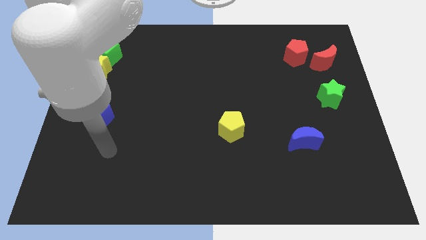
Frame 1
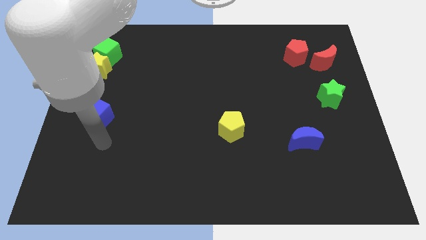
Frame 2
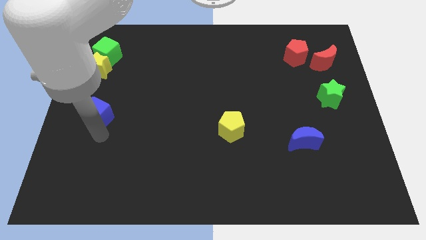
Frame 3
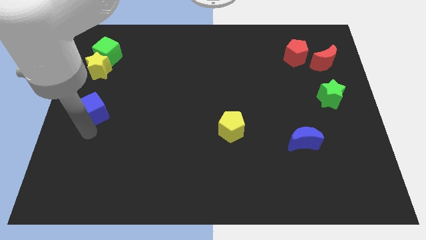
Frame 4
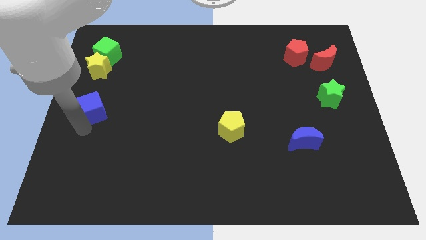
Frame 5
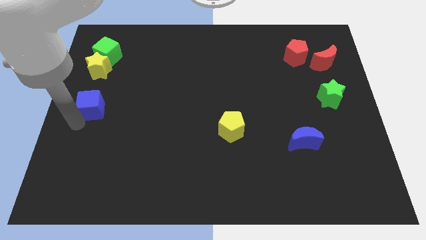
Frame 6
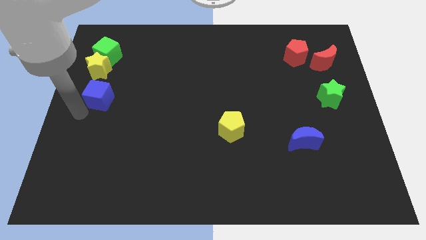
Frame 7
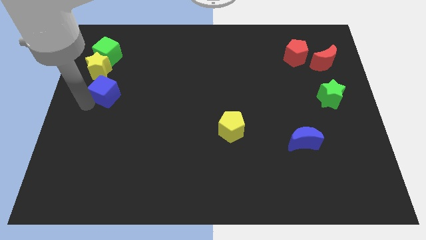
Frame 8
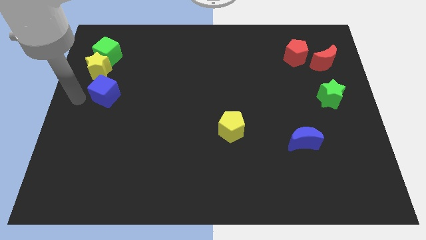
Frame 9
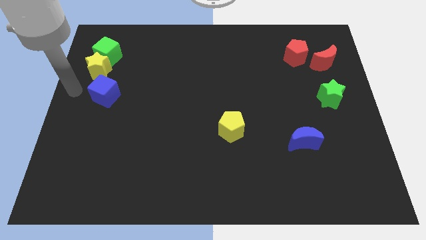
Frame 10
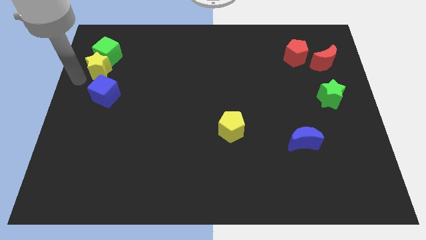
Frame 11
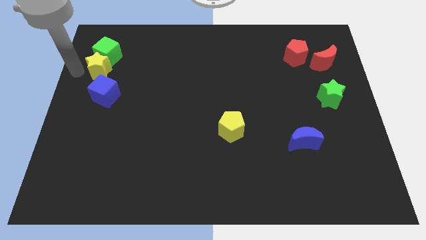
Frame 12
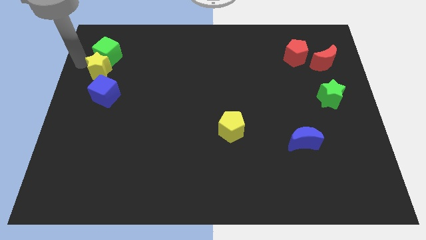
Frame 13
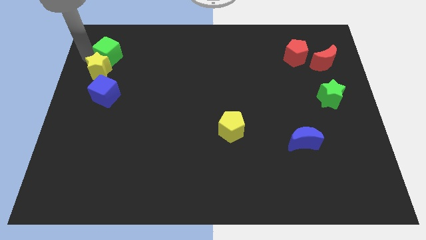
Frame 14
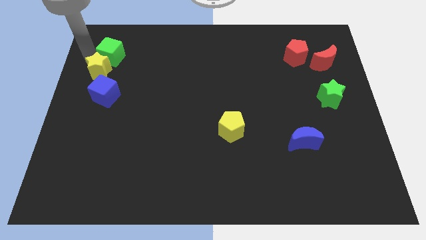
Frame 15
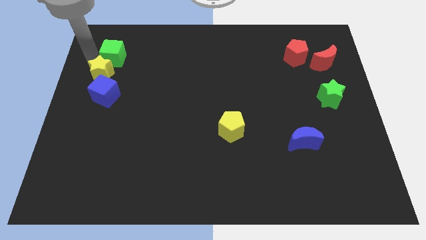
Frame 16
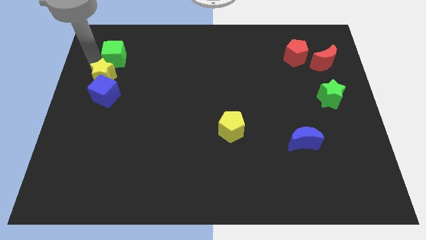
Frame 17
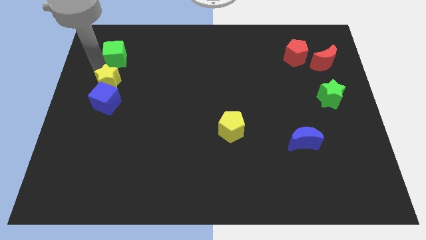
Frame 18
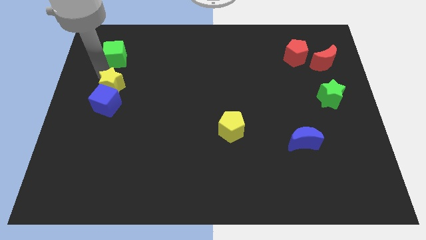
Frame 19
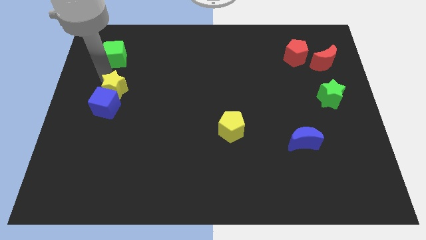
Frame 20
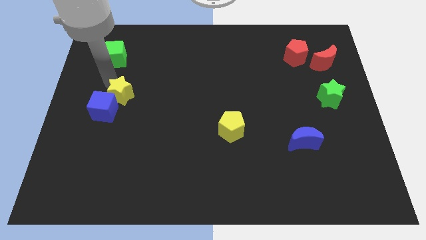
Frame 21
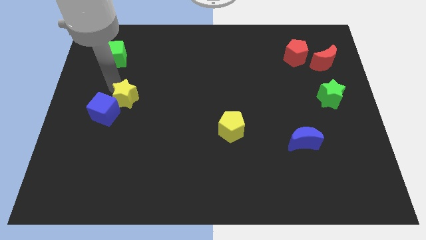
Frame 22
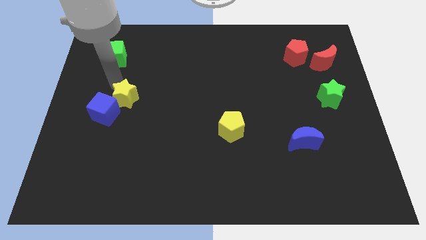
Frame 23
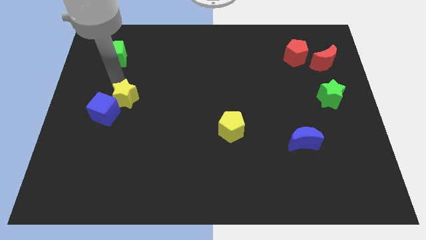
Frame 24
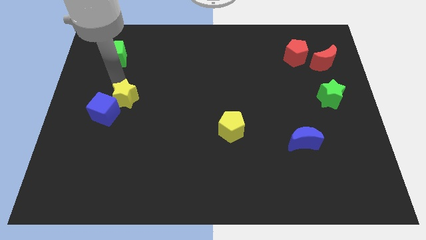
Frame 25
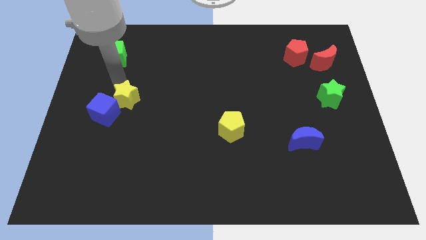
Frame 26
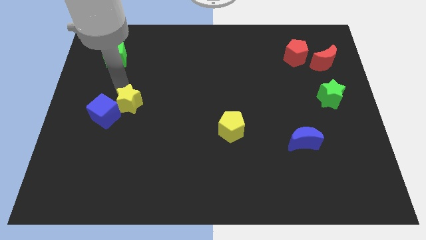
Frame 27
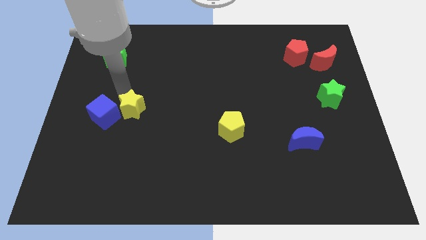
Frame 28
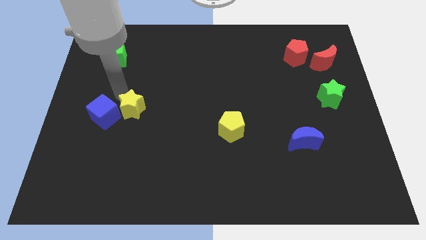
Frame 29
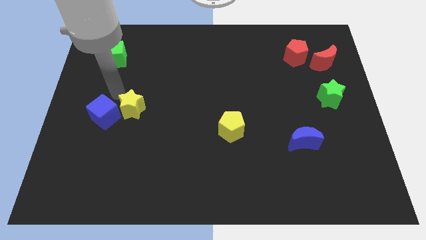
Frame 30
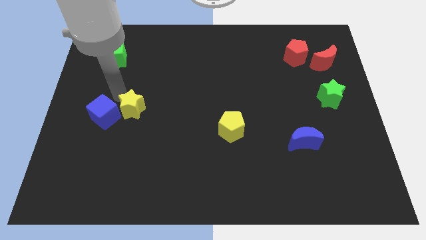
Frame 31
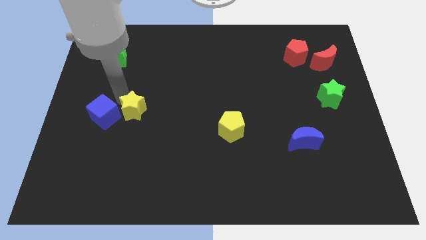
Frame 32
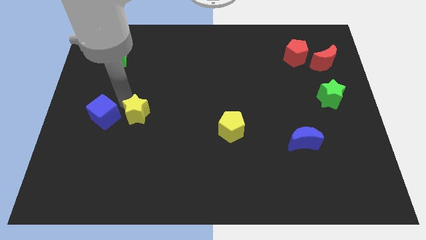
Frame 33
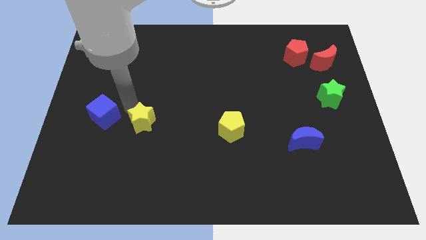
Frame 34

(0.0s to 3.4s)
slide the yellow star down and right

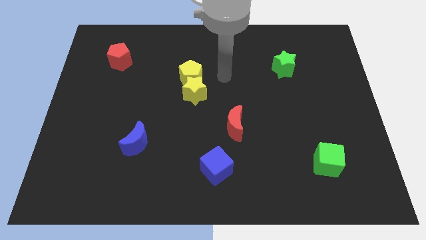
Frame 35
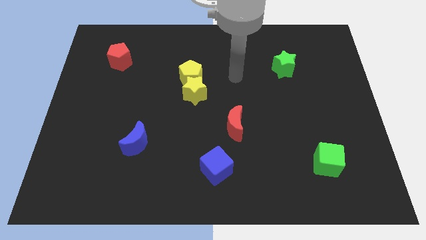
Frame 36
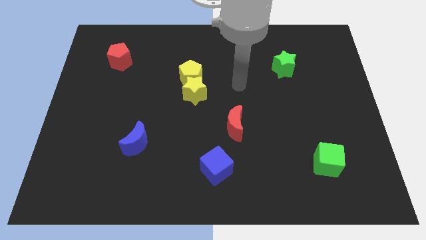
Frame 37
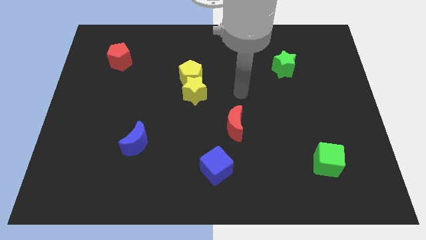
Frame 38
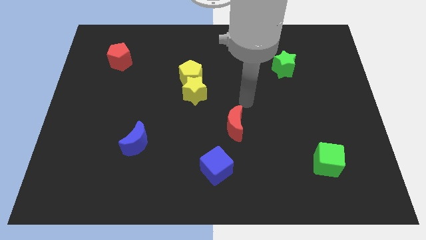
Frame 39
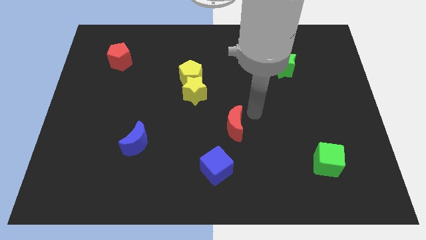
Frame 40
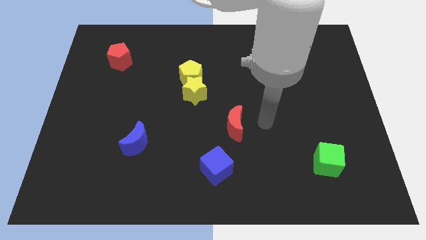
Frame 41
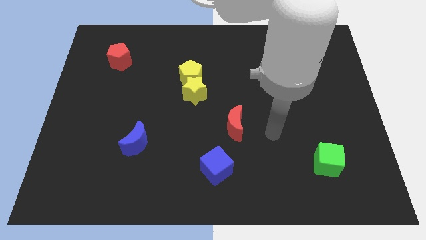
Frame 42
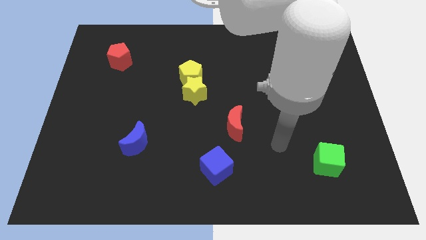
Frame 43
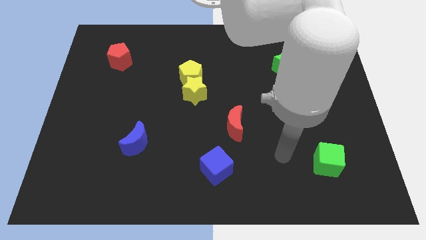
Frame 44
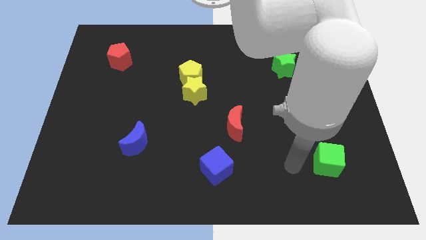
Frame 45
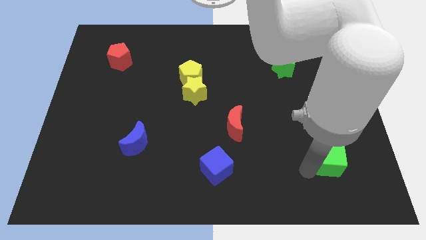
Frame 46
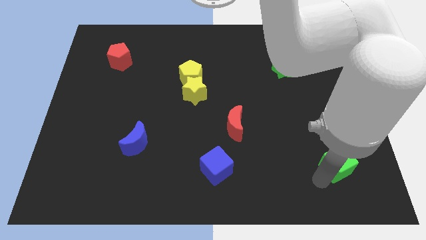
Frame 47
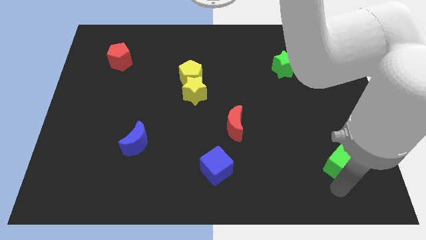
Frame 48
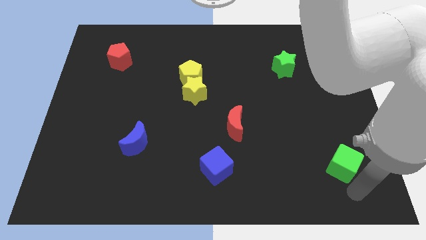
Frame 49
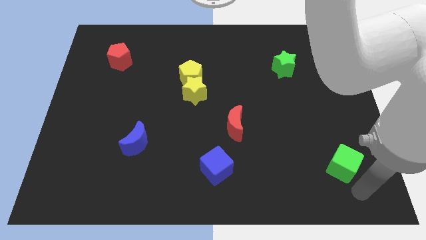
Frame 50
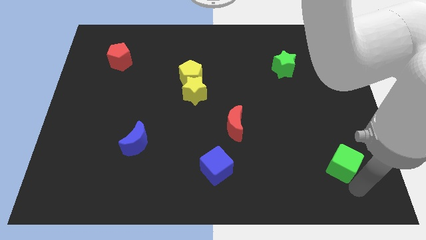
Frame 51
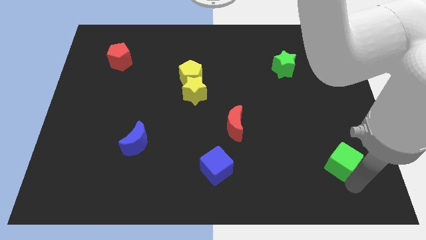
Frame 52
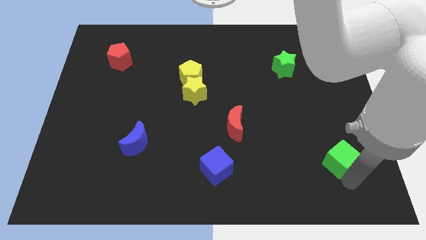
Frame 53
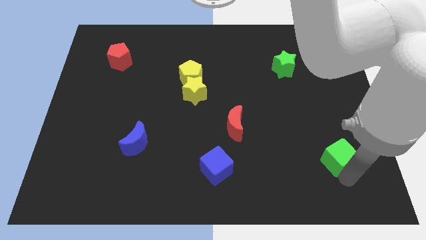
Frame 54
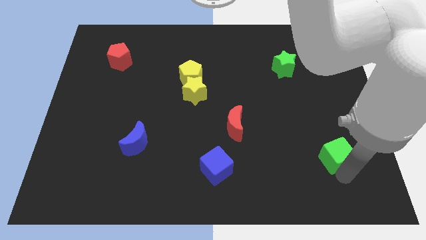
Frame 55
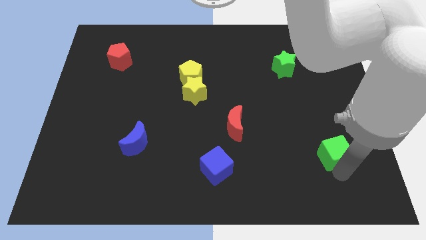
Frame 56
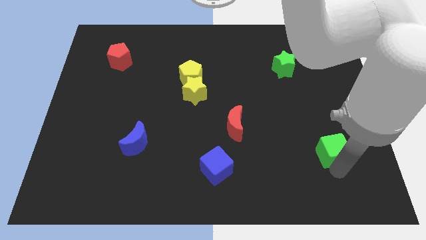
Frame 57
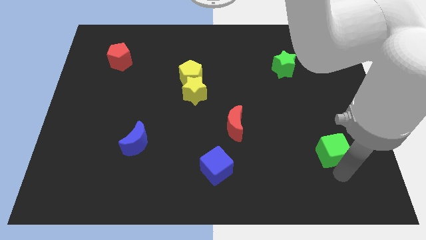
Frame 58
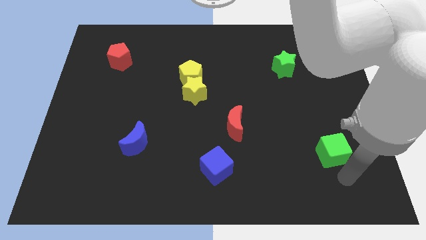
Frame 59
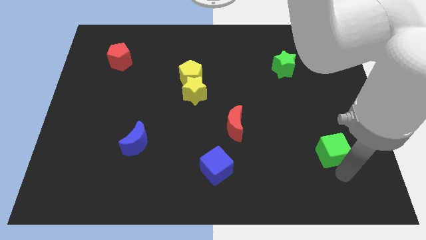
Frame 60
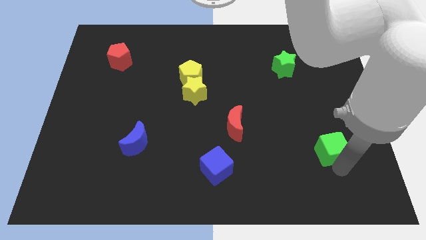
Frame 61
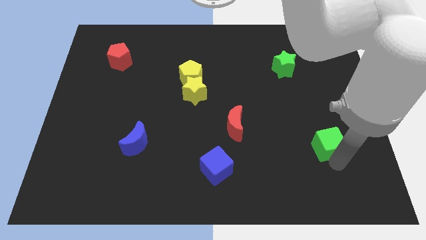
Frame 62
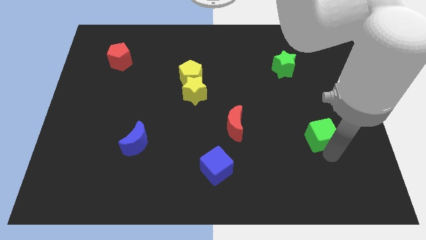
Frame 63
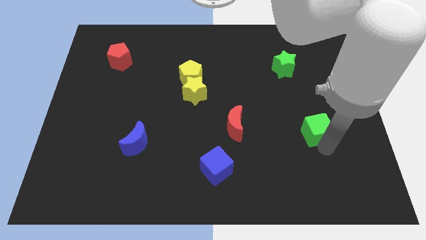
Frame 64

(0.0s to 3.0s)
push the green cube up a little bit

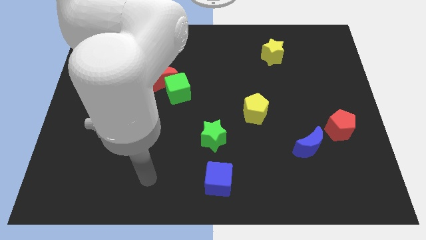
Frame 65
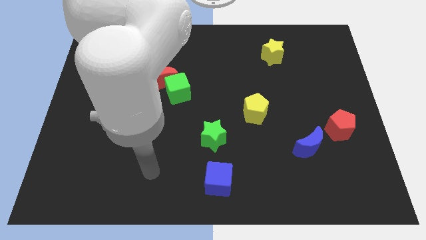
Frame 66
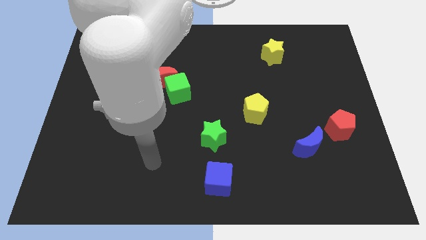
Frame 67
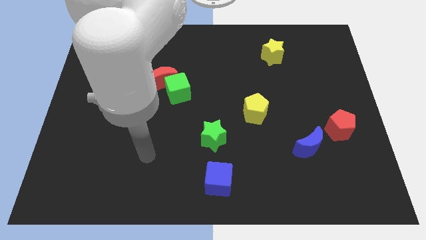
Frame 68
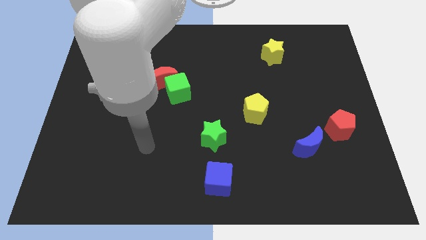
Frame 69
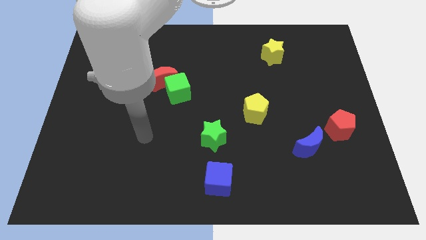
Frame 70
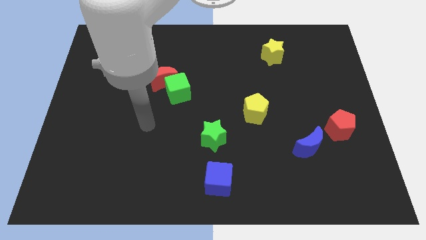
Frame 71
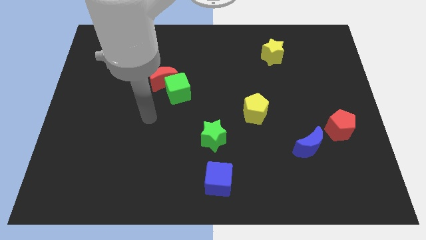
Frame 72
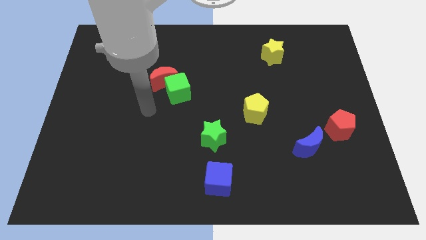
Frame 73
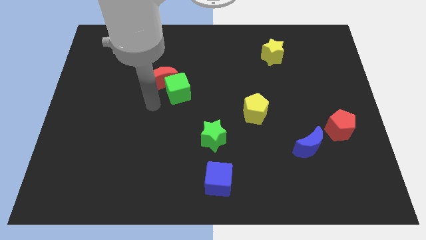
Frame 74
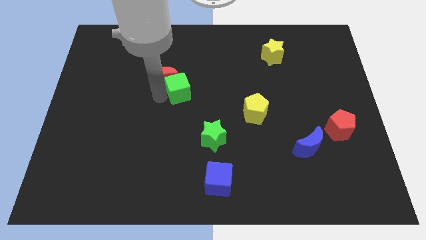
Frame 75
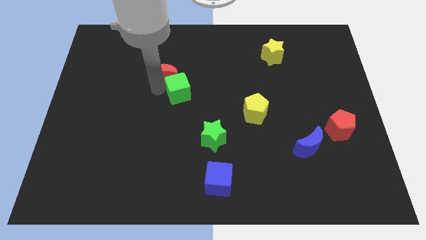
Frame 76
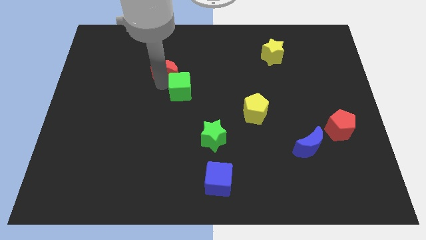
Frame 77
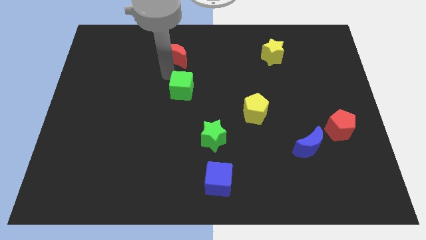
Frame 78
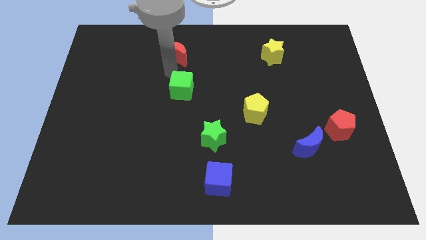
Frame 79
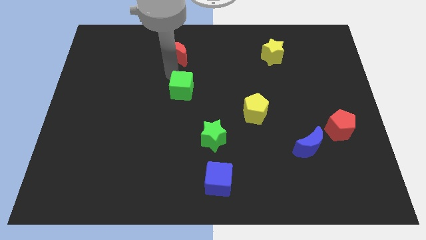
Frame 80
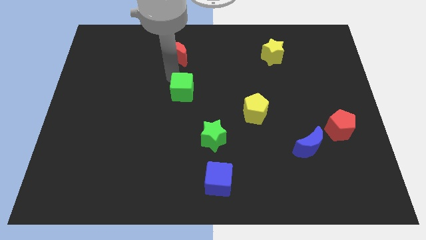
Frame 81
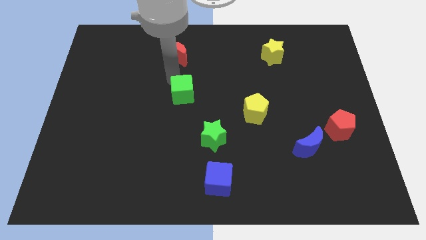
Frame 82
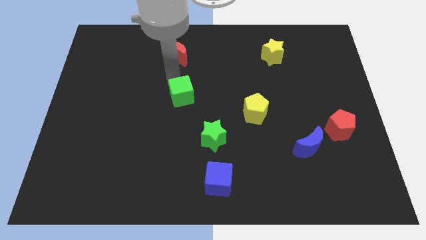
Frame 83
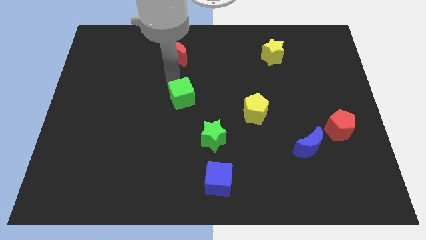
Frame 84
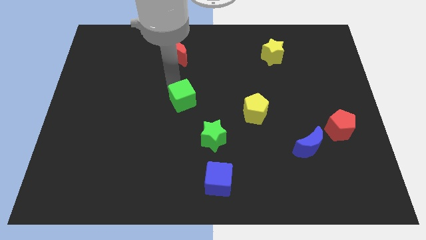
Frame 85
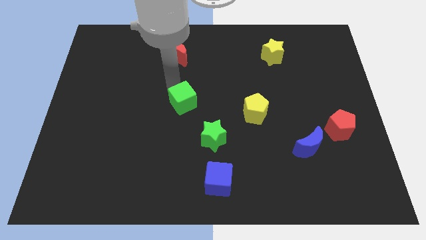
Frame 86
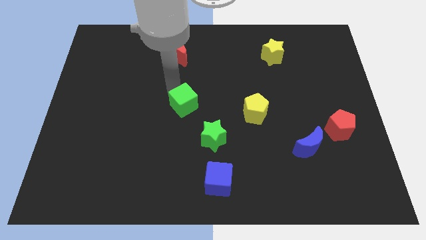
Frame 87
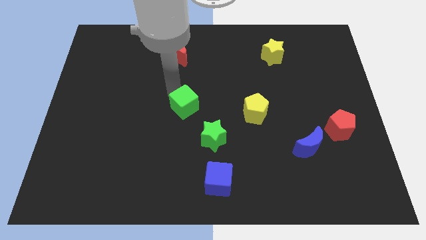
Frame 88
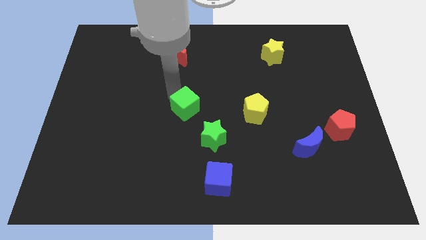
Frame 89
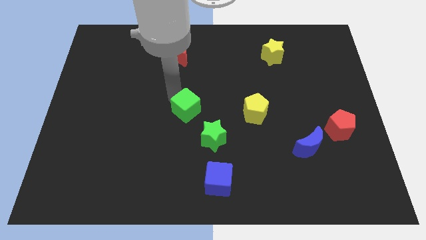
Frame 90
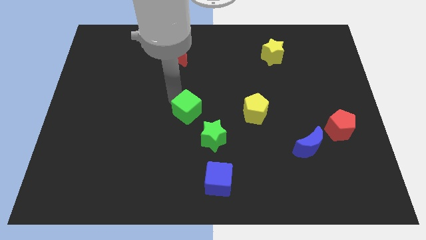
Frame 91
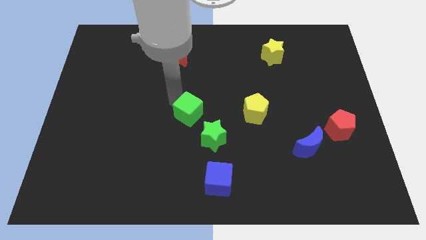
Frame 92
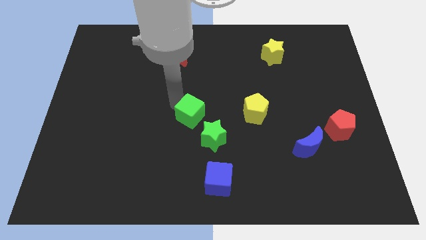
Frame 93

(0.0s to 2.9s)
move the green cube diagonally down and to the right a bit
